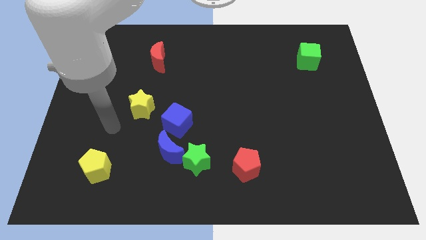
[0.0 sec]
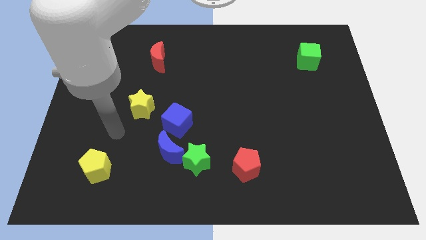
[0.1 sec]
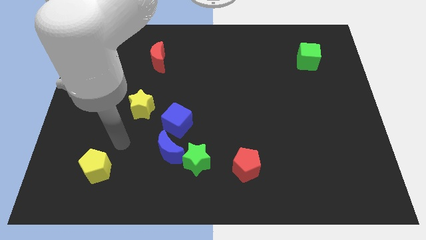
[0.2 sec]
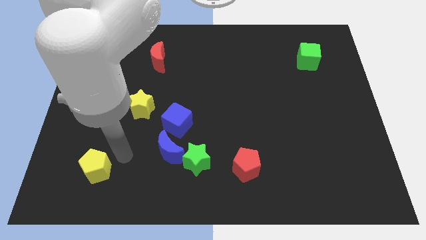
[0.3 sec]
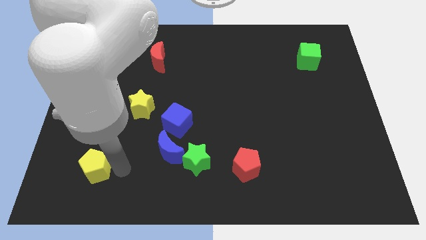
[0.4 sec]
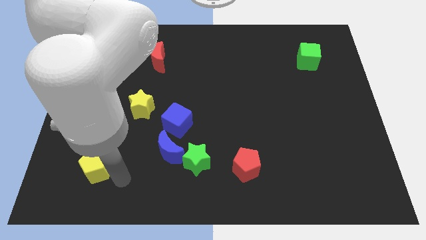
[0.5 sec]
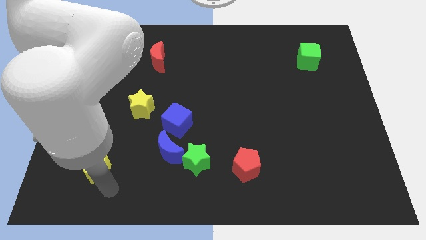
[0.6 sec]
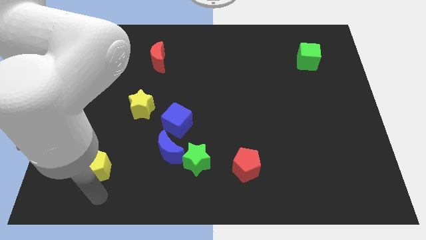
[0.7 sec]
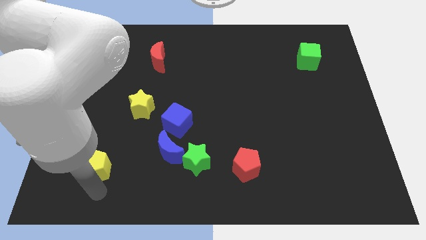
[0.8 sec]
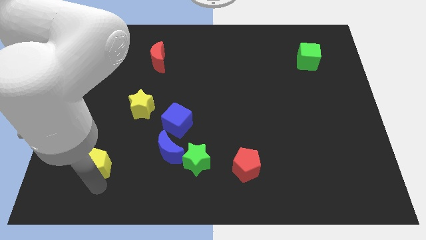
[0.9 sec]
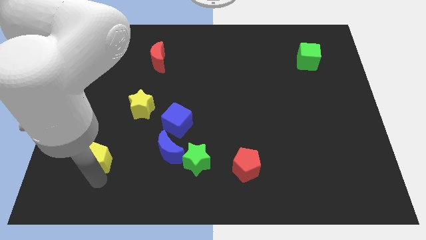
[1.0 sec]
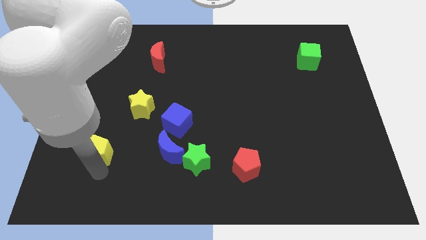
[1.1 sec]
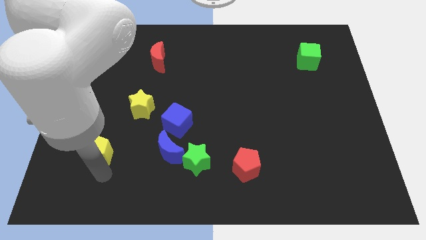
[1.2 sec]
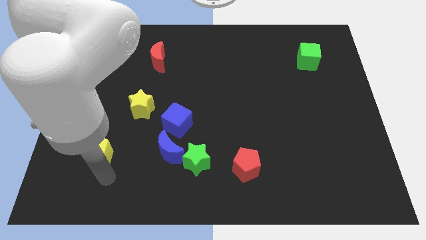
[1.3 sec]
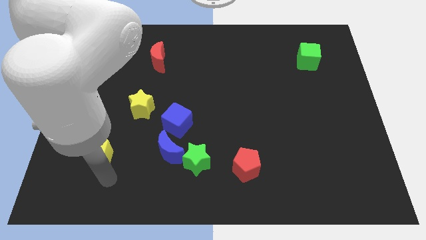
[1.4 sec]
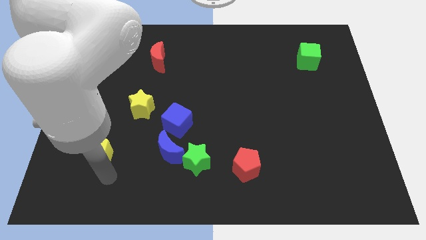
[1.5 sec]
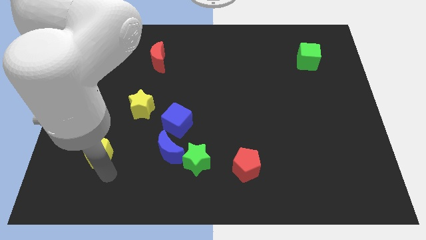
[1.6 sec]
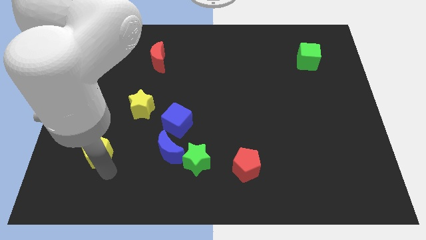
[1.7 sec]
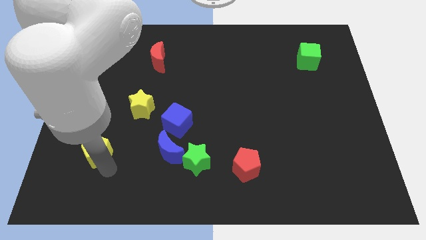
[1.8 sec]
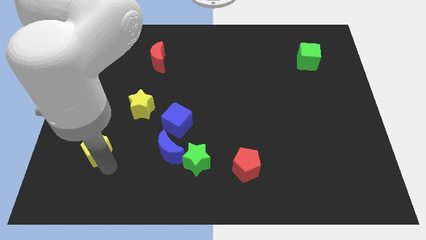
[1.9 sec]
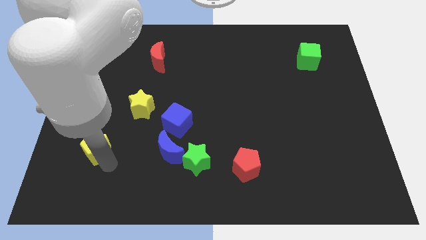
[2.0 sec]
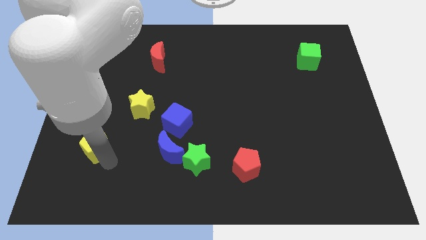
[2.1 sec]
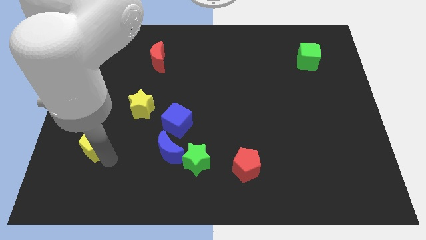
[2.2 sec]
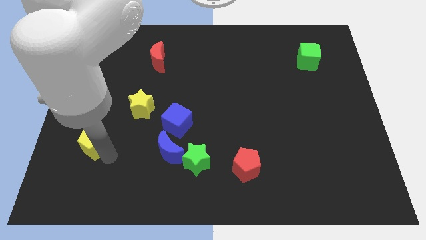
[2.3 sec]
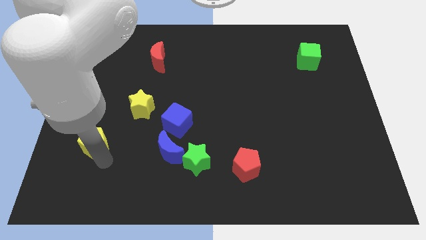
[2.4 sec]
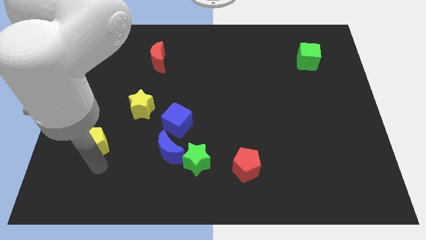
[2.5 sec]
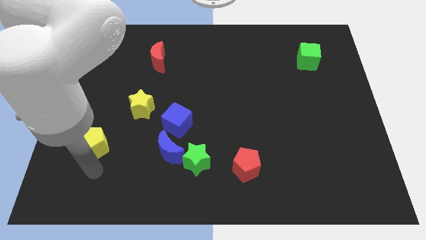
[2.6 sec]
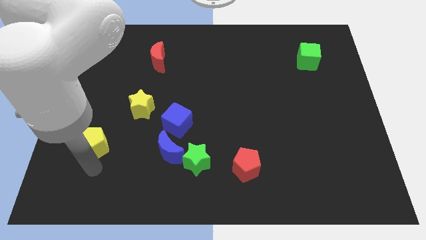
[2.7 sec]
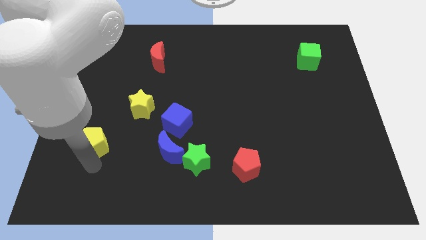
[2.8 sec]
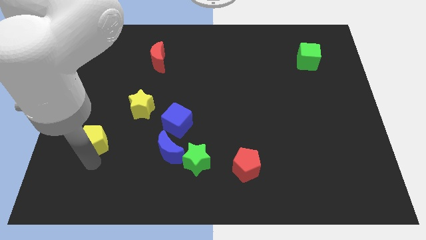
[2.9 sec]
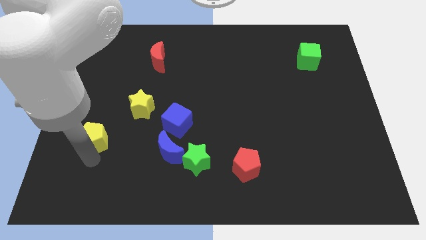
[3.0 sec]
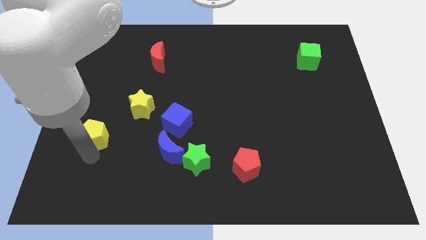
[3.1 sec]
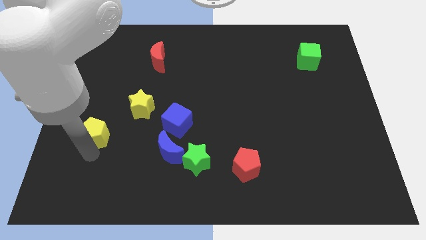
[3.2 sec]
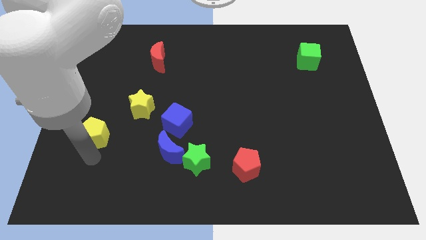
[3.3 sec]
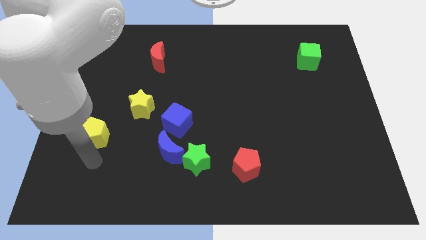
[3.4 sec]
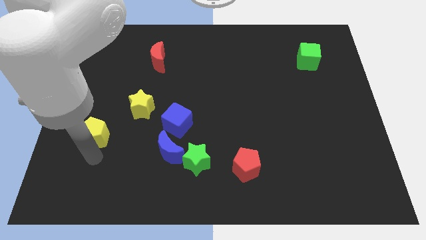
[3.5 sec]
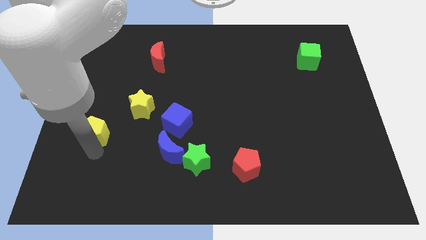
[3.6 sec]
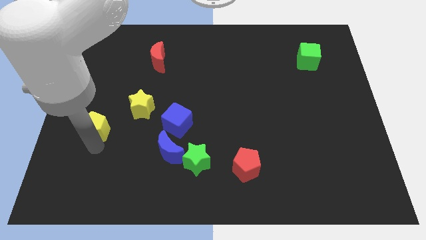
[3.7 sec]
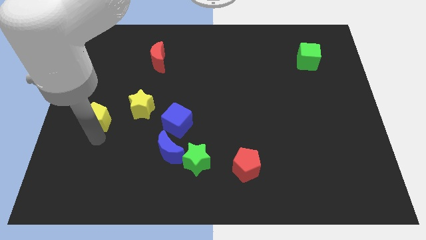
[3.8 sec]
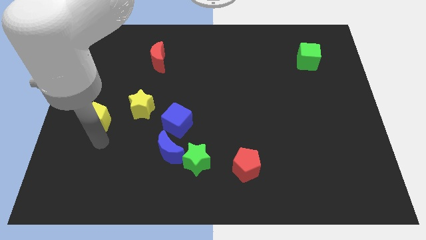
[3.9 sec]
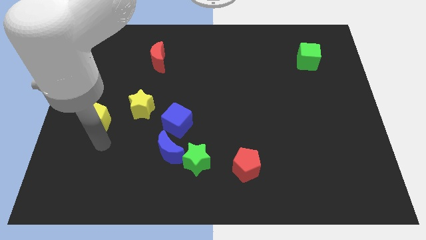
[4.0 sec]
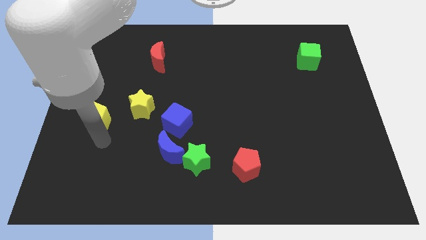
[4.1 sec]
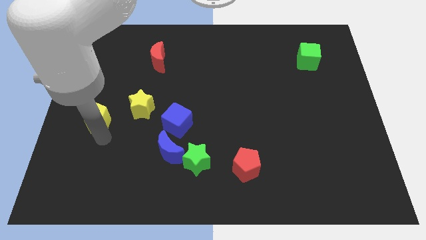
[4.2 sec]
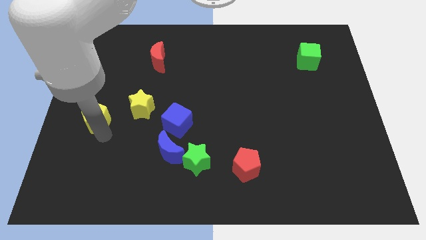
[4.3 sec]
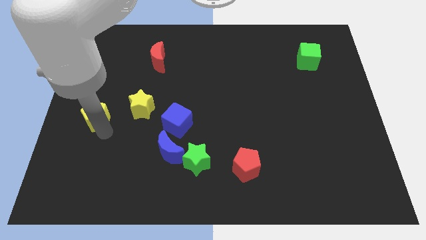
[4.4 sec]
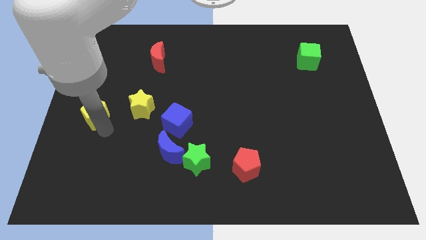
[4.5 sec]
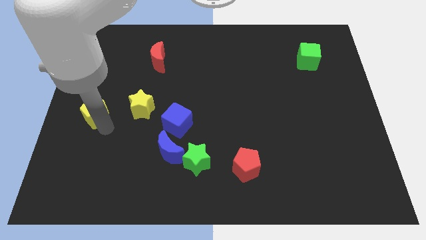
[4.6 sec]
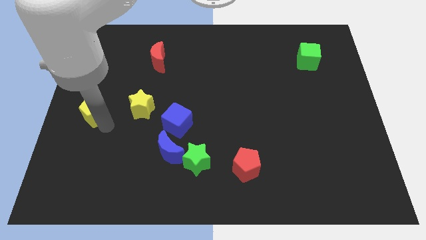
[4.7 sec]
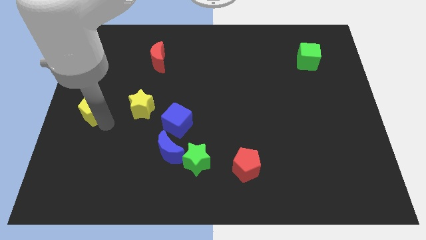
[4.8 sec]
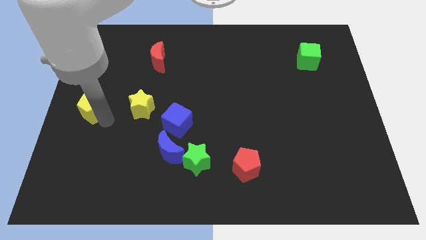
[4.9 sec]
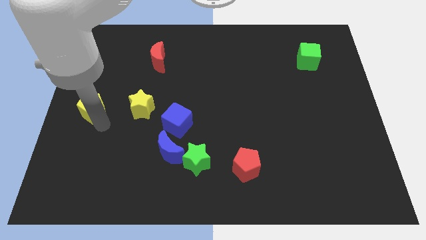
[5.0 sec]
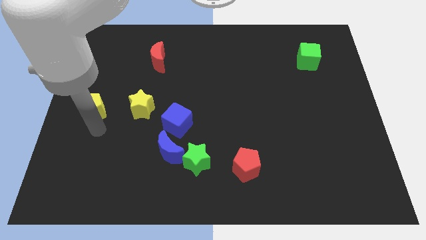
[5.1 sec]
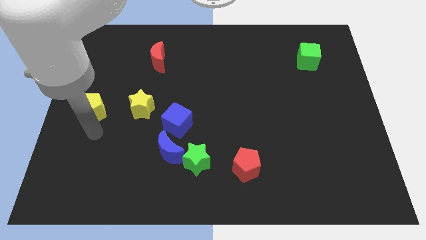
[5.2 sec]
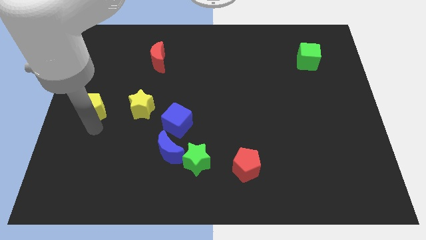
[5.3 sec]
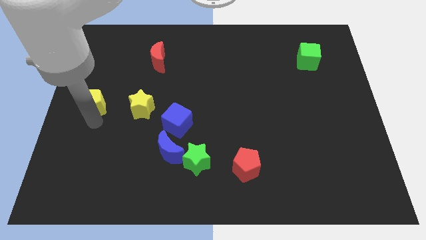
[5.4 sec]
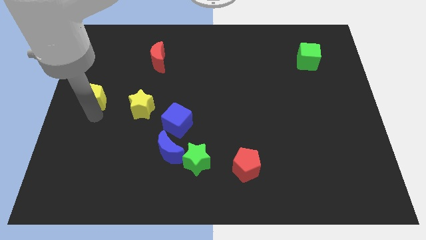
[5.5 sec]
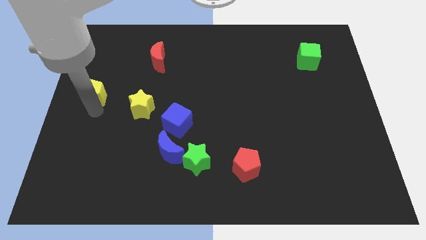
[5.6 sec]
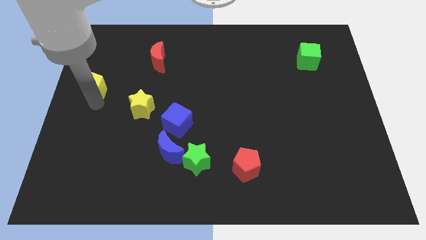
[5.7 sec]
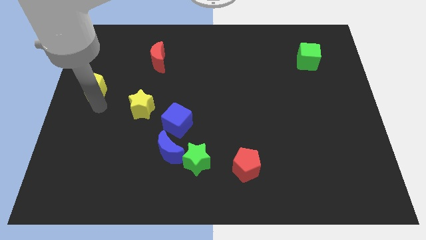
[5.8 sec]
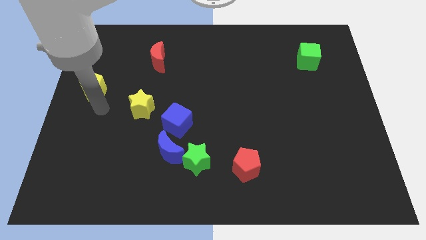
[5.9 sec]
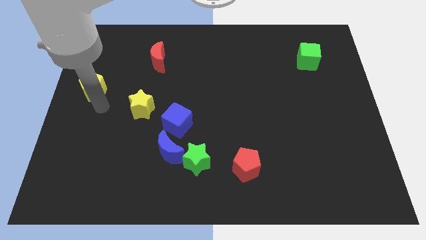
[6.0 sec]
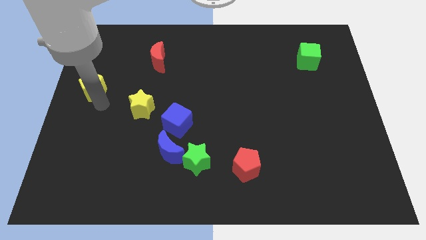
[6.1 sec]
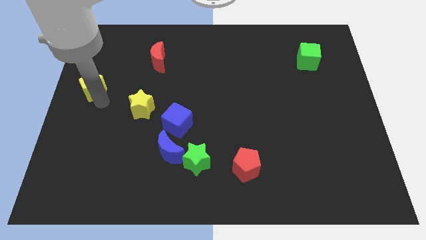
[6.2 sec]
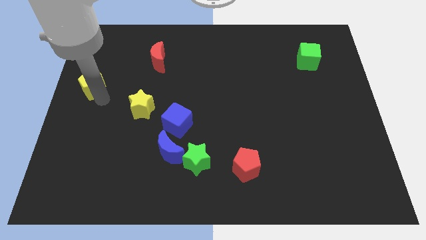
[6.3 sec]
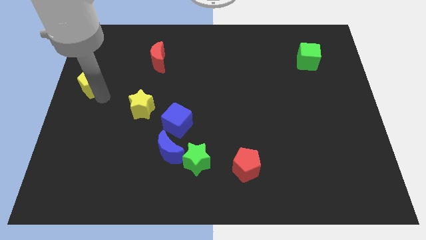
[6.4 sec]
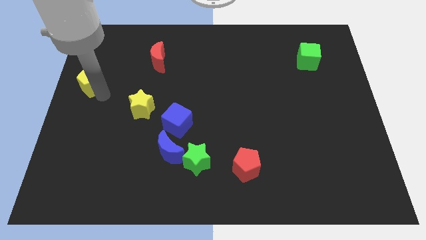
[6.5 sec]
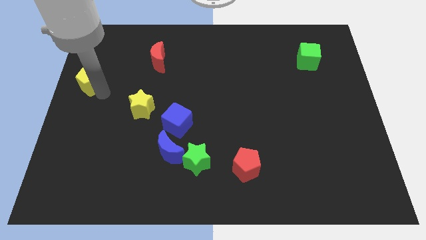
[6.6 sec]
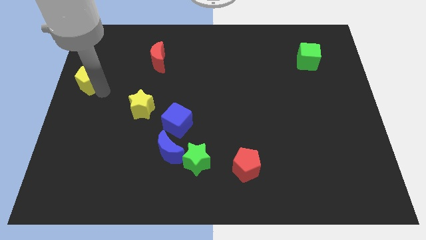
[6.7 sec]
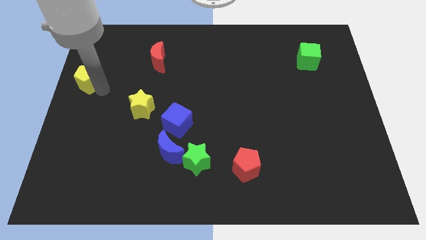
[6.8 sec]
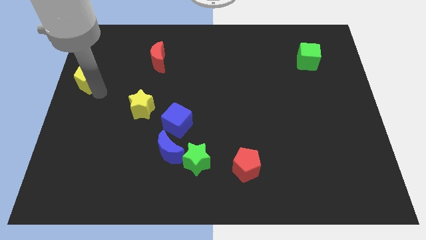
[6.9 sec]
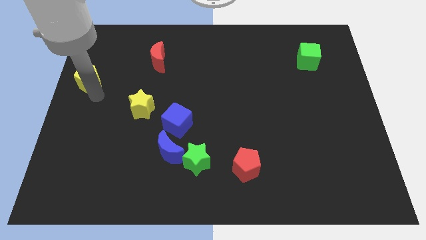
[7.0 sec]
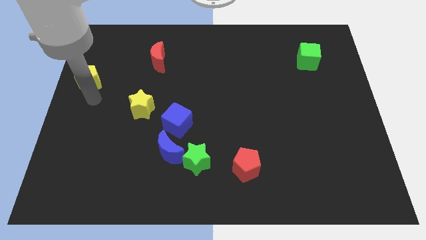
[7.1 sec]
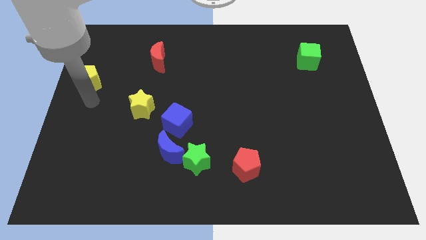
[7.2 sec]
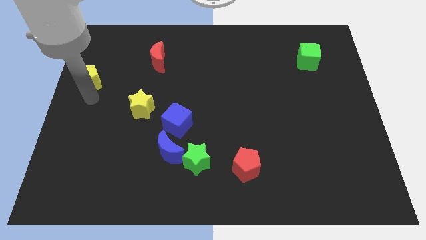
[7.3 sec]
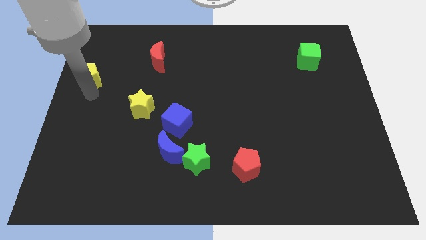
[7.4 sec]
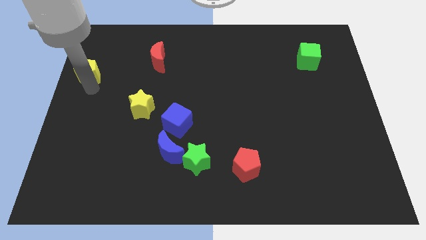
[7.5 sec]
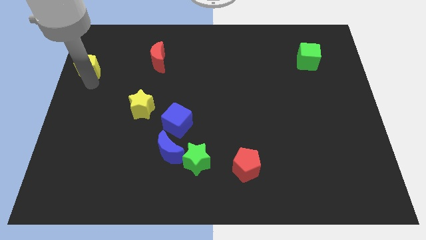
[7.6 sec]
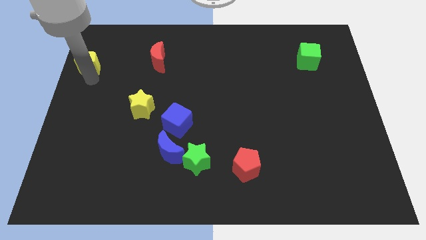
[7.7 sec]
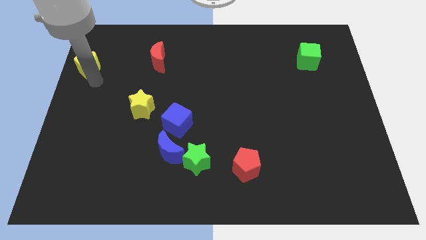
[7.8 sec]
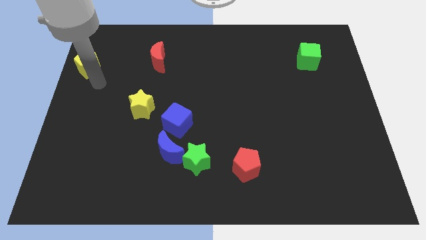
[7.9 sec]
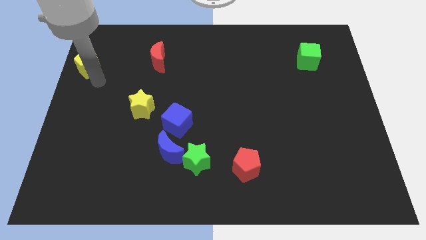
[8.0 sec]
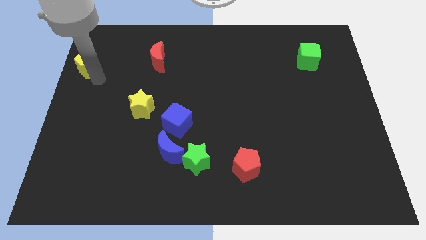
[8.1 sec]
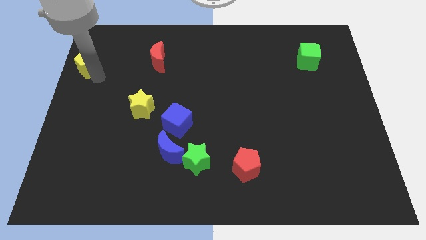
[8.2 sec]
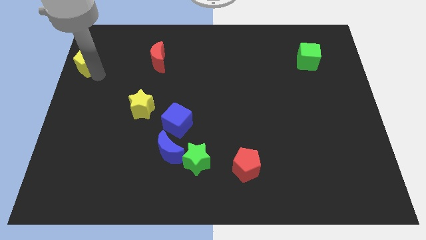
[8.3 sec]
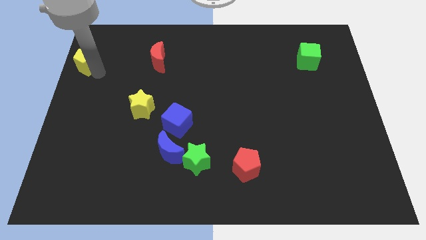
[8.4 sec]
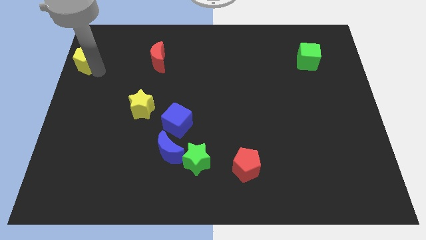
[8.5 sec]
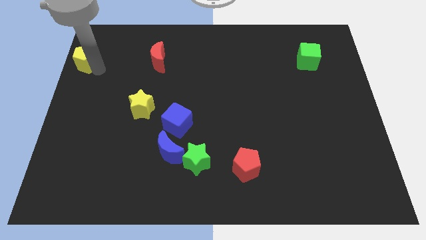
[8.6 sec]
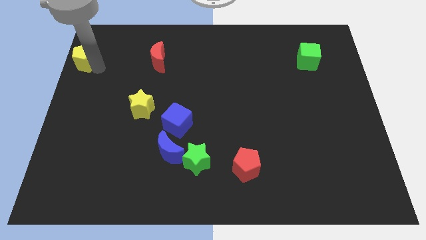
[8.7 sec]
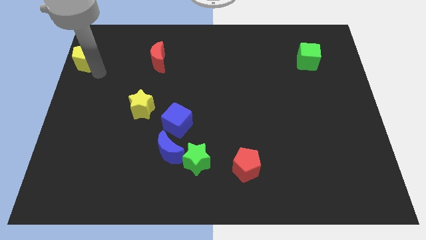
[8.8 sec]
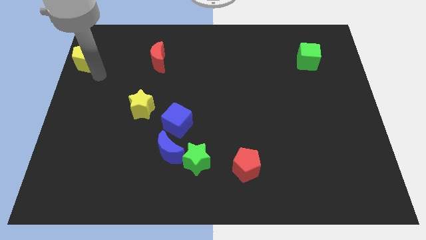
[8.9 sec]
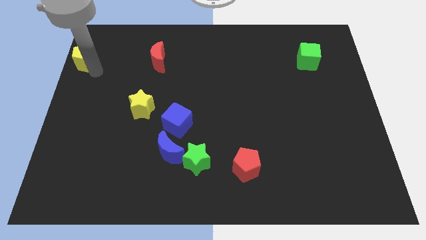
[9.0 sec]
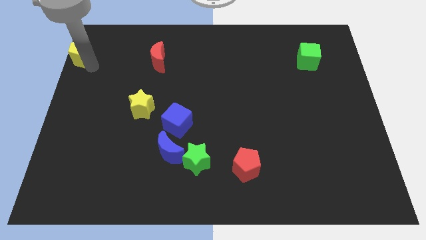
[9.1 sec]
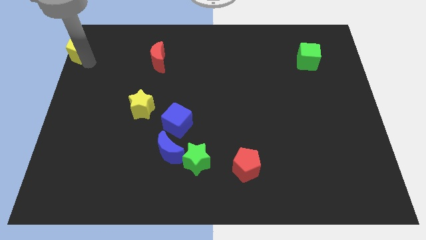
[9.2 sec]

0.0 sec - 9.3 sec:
put the yellow pentagon to the top left of the board
